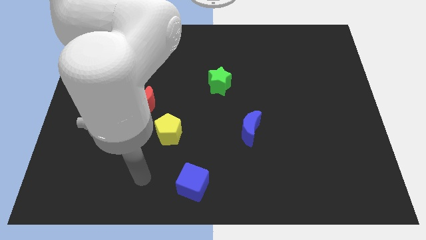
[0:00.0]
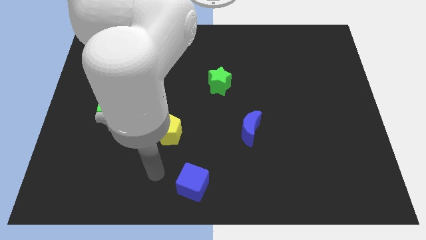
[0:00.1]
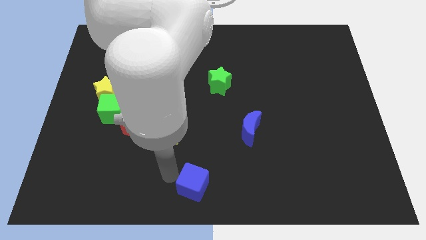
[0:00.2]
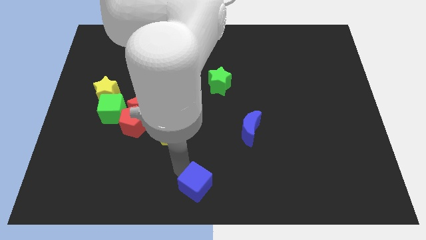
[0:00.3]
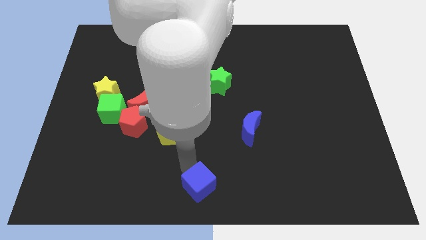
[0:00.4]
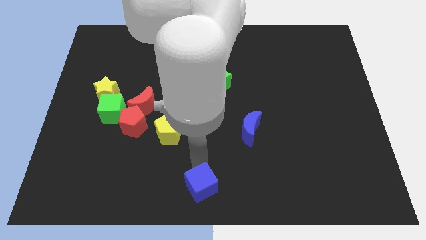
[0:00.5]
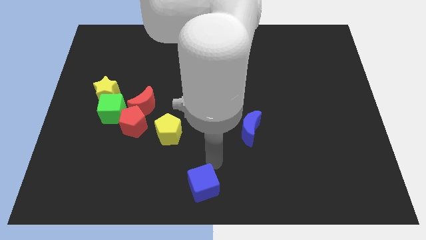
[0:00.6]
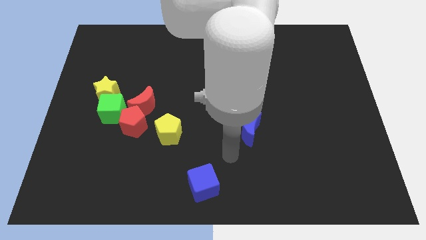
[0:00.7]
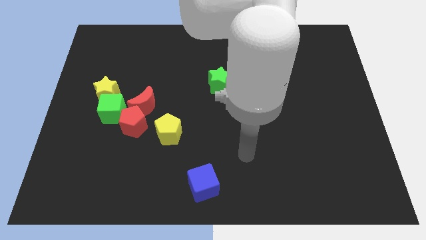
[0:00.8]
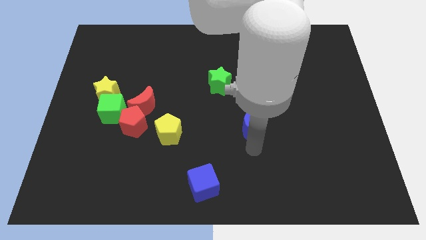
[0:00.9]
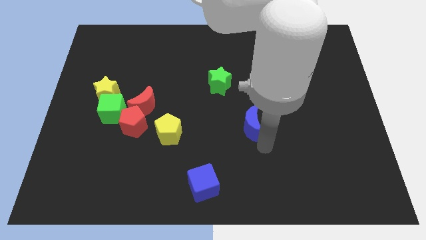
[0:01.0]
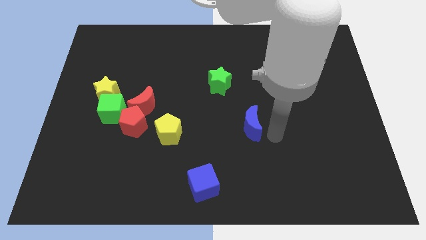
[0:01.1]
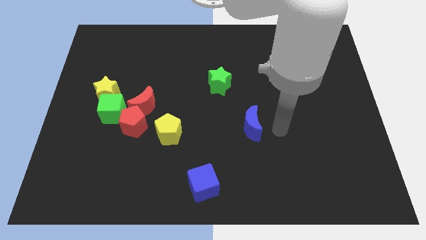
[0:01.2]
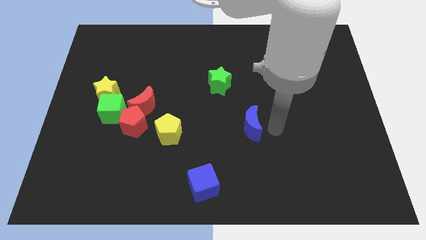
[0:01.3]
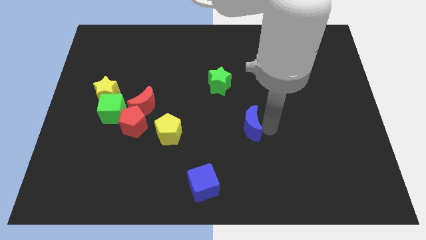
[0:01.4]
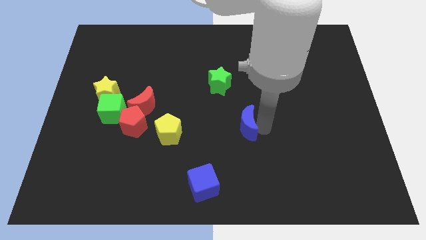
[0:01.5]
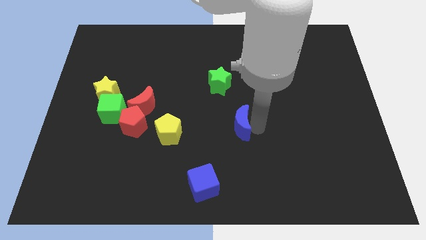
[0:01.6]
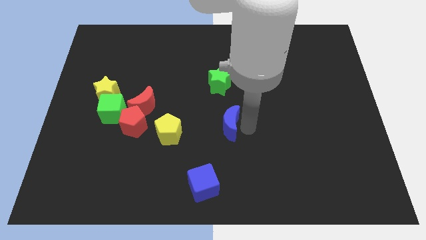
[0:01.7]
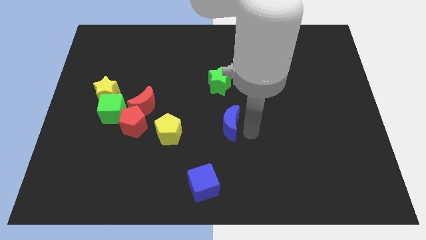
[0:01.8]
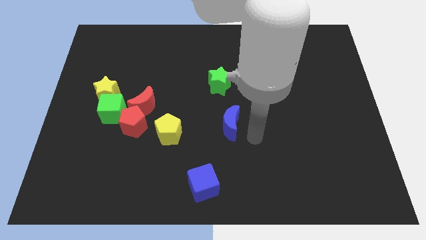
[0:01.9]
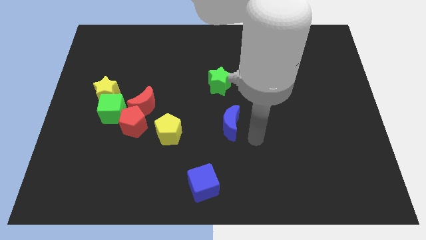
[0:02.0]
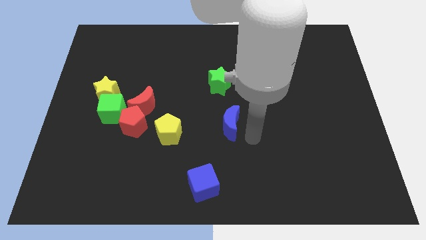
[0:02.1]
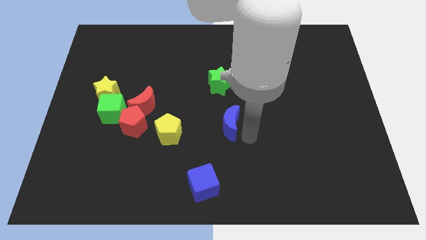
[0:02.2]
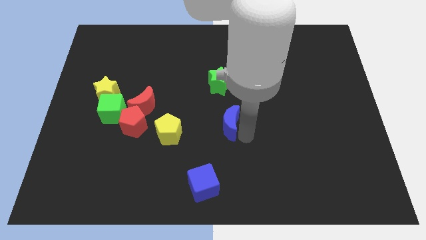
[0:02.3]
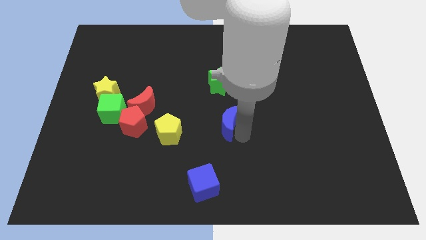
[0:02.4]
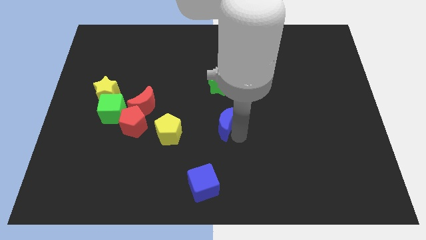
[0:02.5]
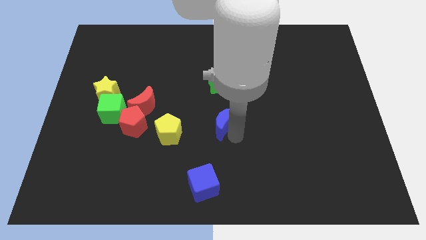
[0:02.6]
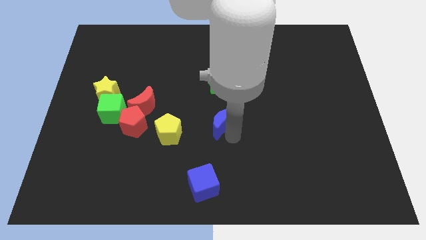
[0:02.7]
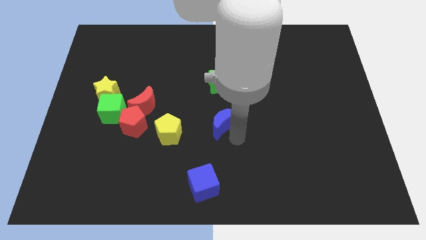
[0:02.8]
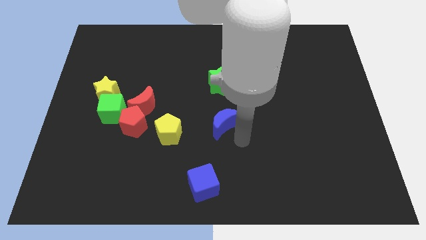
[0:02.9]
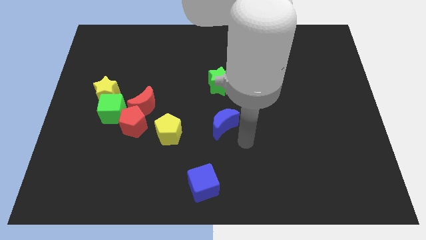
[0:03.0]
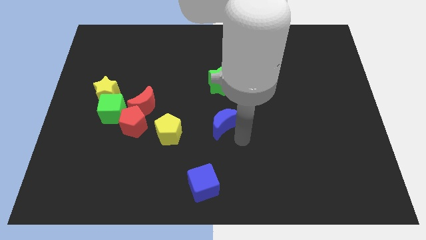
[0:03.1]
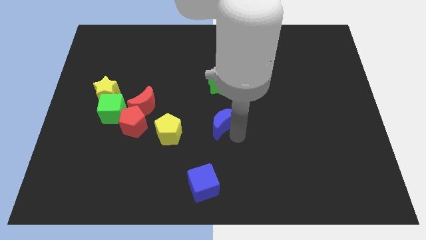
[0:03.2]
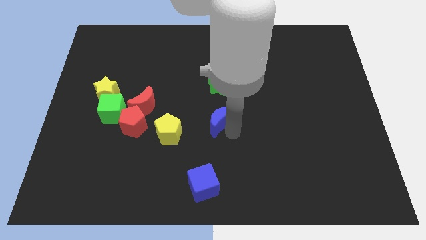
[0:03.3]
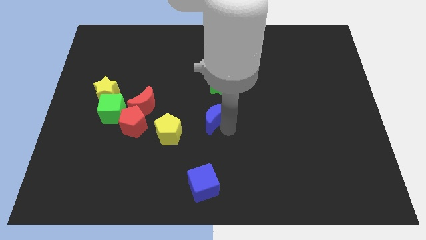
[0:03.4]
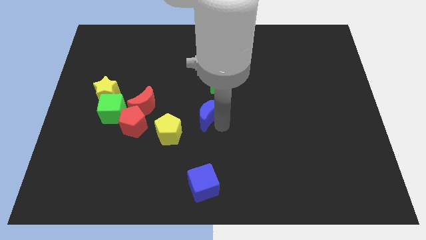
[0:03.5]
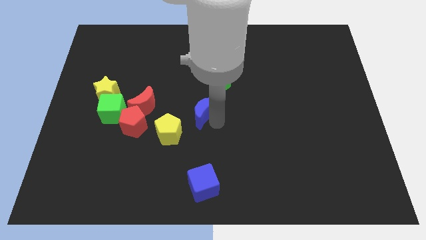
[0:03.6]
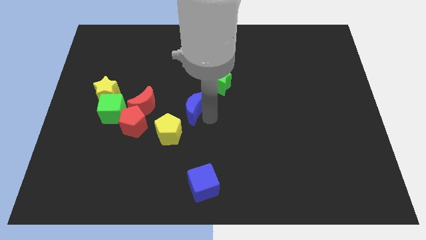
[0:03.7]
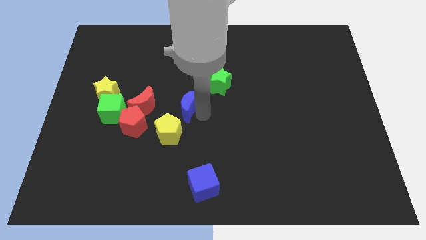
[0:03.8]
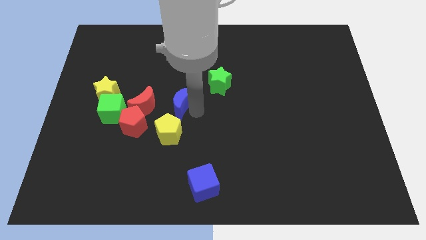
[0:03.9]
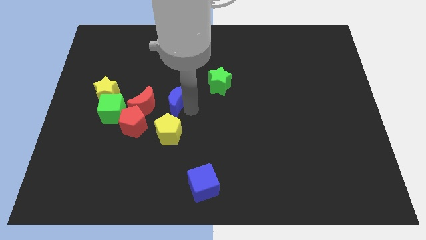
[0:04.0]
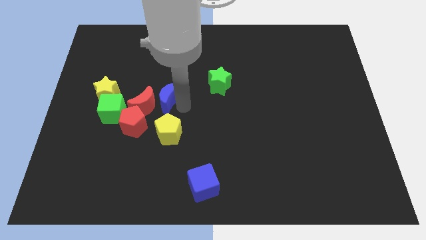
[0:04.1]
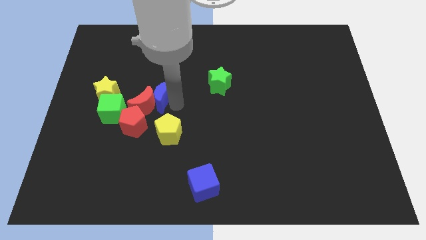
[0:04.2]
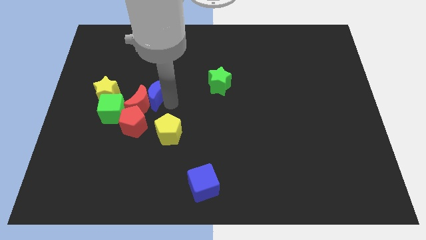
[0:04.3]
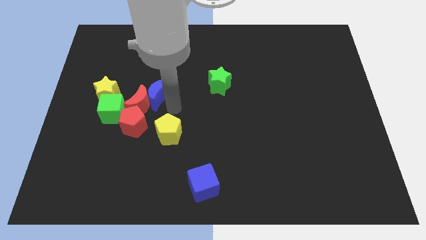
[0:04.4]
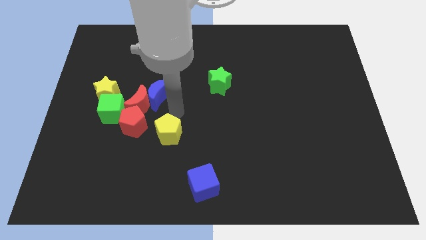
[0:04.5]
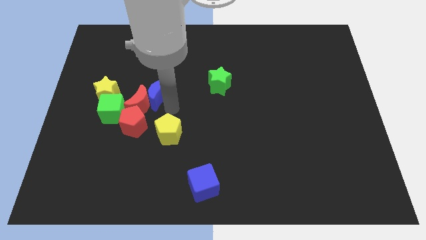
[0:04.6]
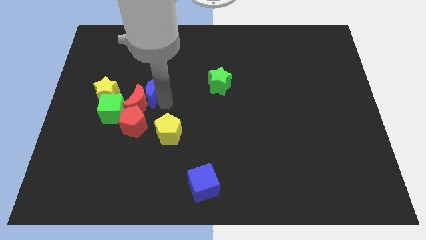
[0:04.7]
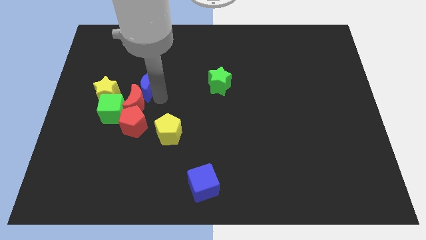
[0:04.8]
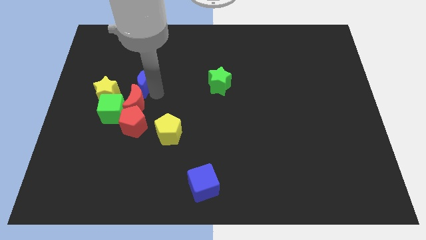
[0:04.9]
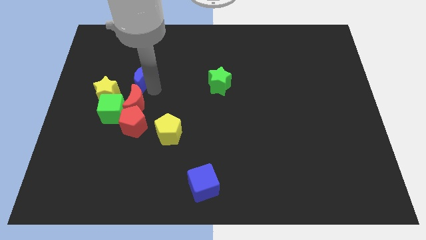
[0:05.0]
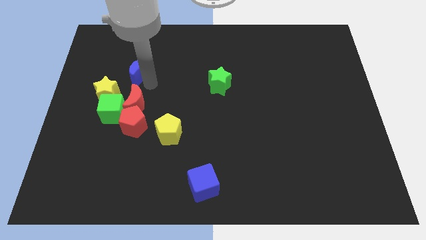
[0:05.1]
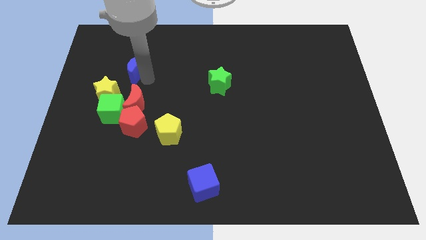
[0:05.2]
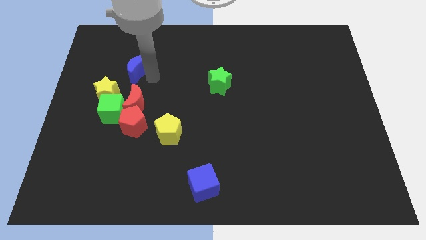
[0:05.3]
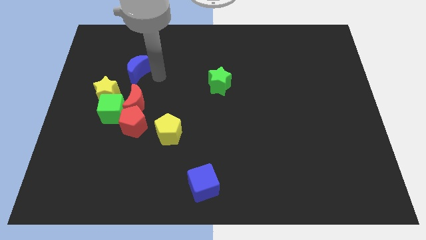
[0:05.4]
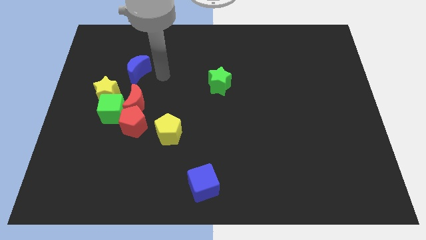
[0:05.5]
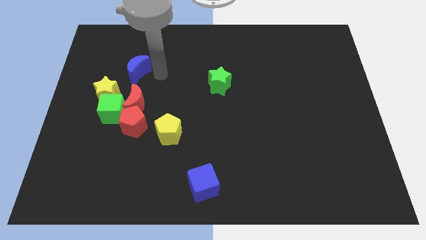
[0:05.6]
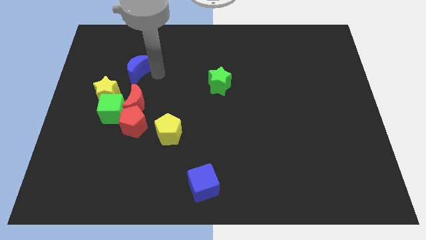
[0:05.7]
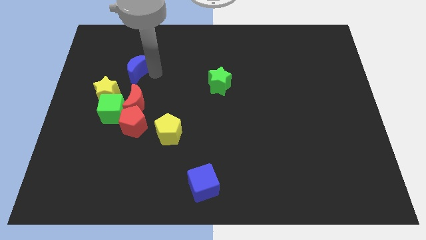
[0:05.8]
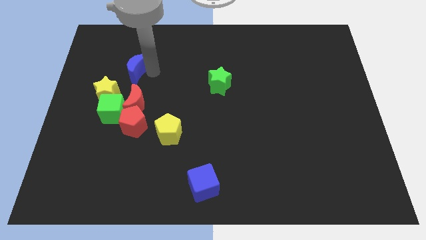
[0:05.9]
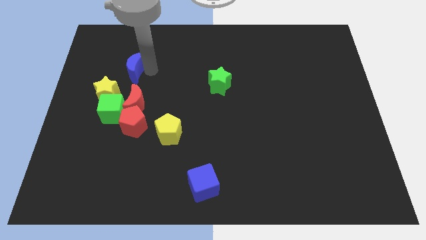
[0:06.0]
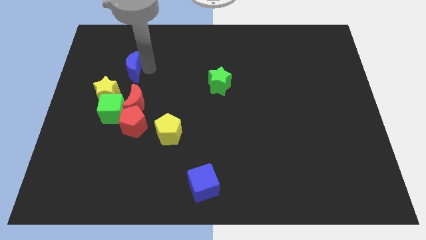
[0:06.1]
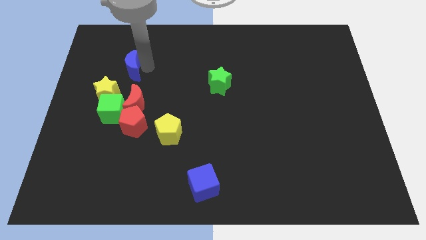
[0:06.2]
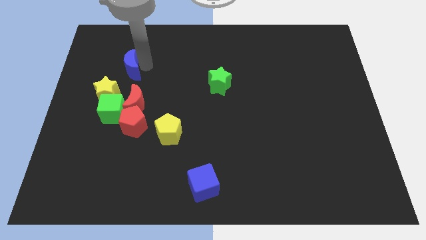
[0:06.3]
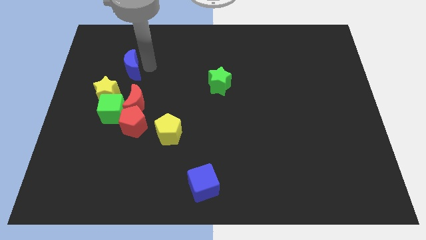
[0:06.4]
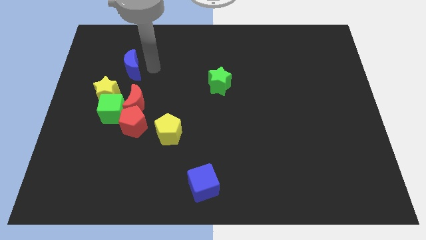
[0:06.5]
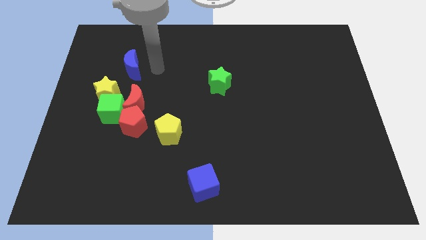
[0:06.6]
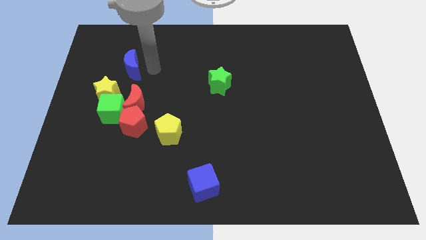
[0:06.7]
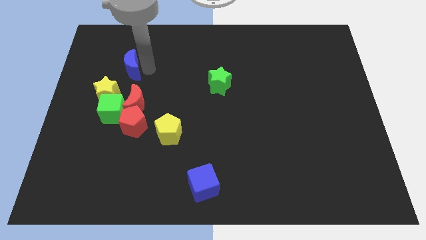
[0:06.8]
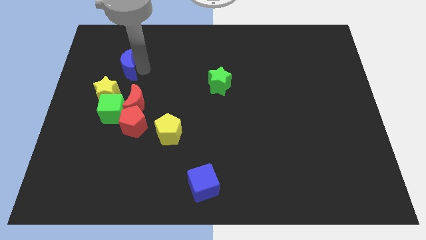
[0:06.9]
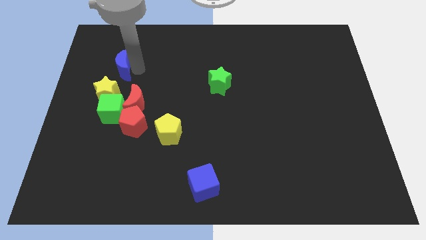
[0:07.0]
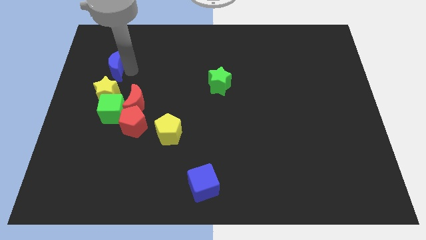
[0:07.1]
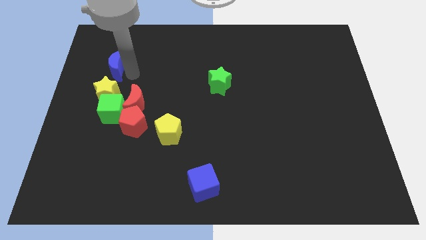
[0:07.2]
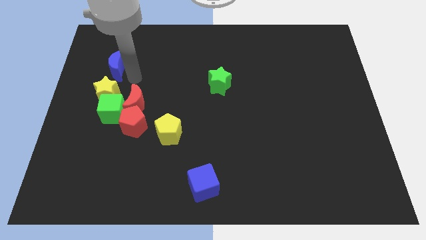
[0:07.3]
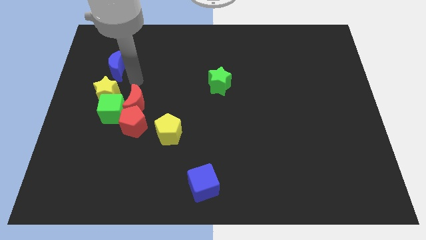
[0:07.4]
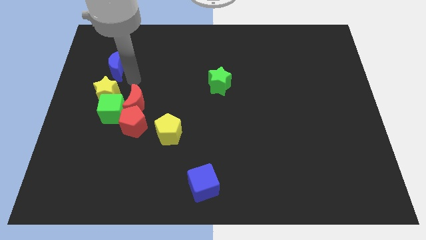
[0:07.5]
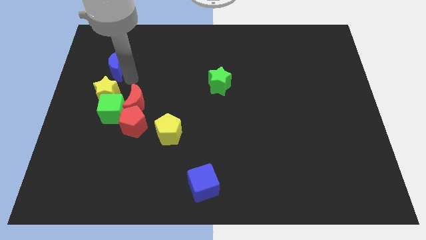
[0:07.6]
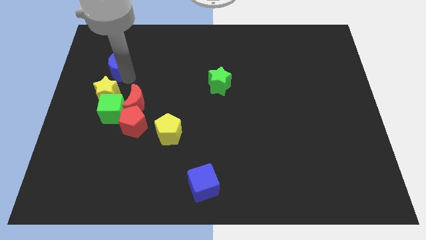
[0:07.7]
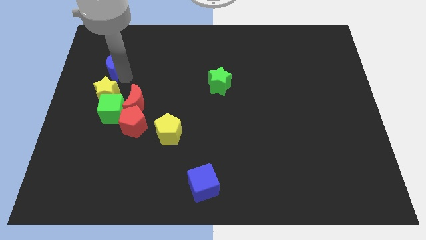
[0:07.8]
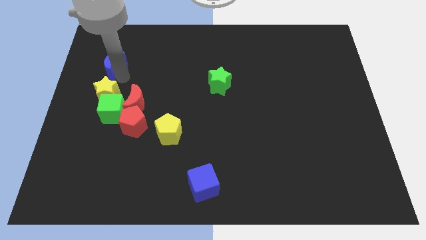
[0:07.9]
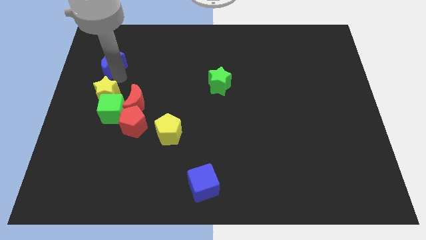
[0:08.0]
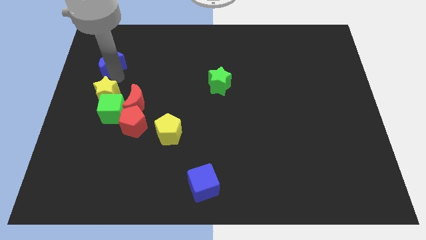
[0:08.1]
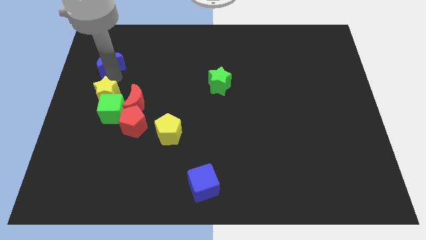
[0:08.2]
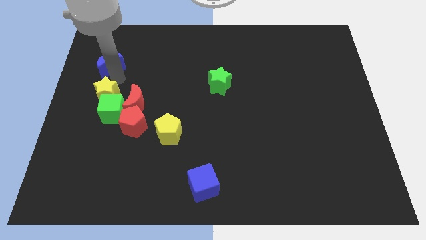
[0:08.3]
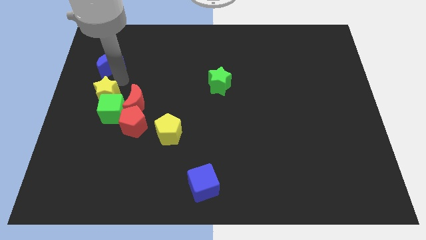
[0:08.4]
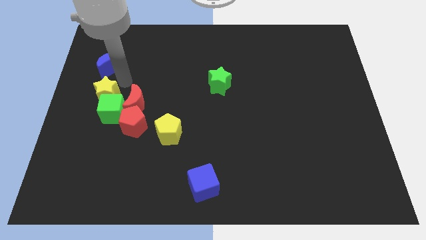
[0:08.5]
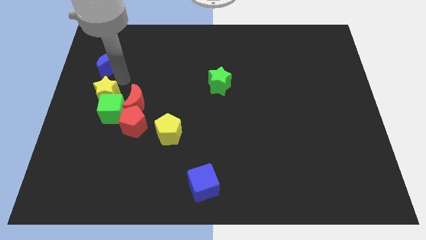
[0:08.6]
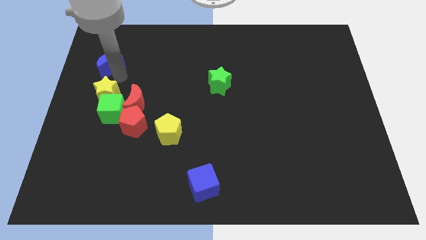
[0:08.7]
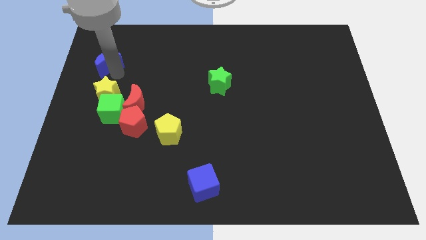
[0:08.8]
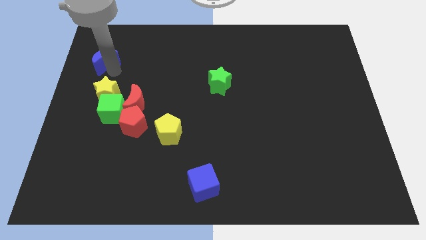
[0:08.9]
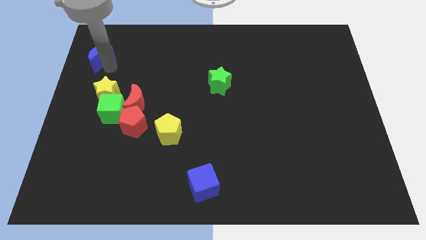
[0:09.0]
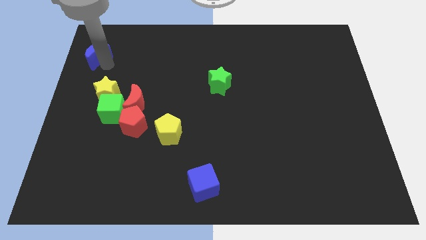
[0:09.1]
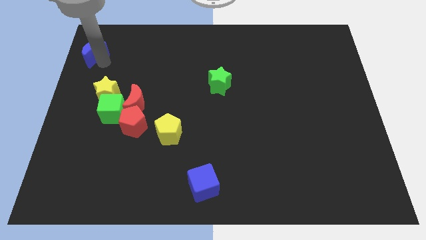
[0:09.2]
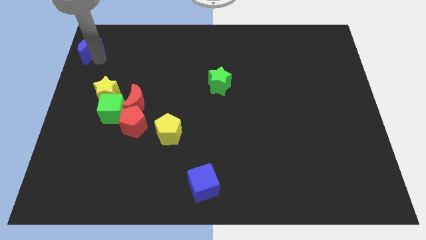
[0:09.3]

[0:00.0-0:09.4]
push the blue moon to the top left
